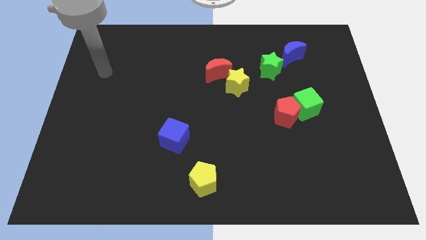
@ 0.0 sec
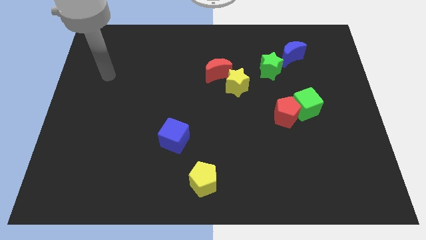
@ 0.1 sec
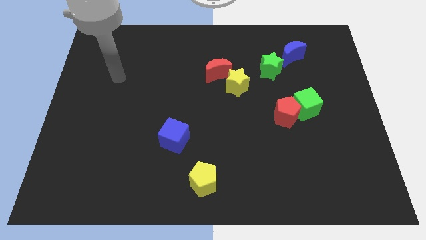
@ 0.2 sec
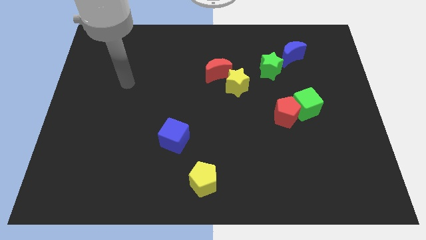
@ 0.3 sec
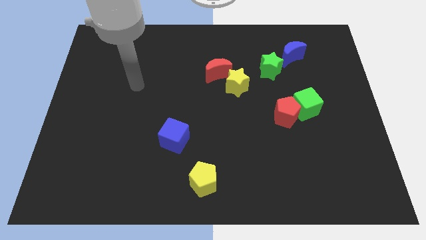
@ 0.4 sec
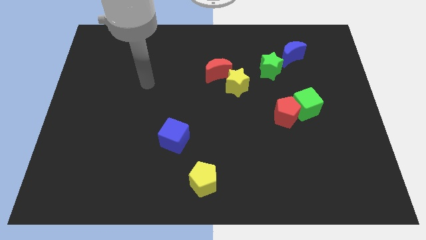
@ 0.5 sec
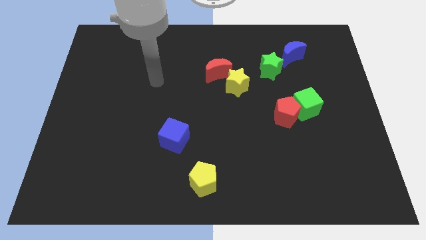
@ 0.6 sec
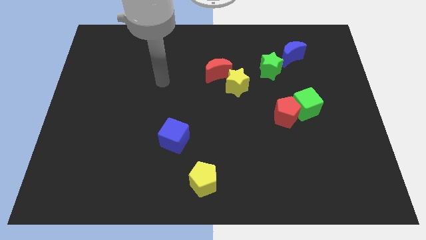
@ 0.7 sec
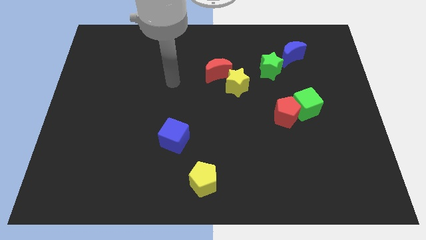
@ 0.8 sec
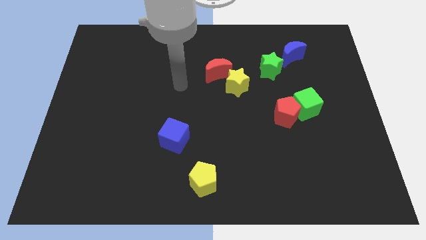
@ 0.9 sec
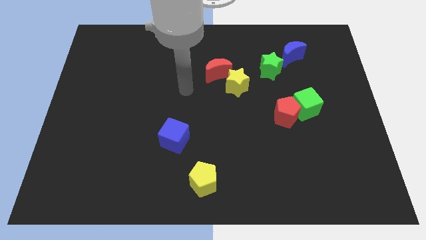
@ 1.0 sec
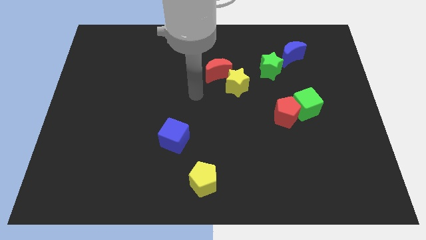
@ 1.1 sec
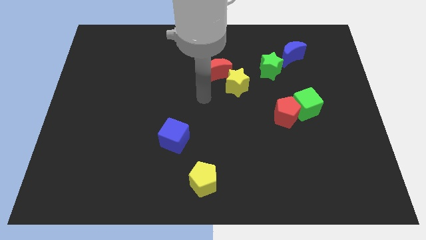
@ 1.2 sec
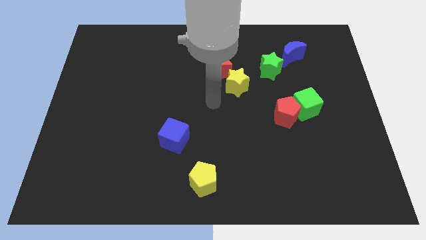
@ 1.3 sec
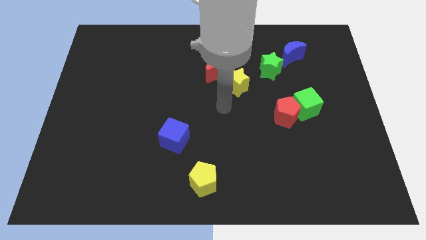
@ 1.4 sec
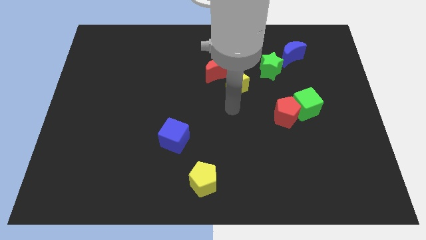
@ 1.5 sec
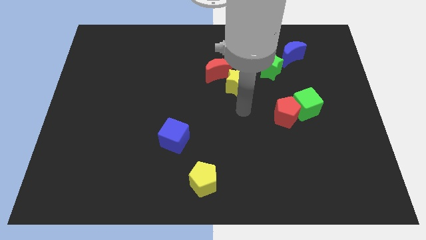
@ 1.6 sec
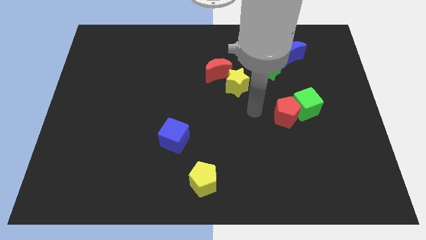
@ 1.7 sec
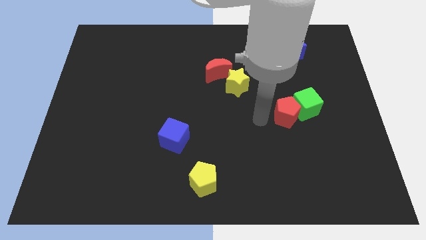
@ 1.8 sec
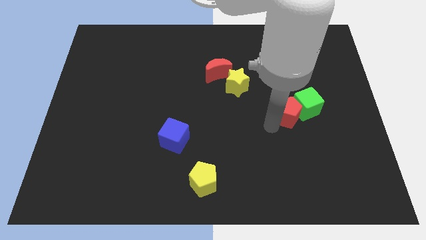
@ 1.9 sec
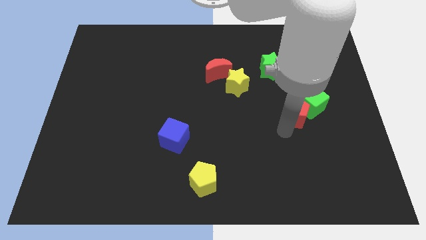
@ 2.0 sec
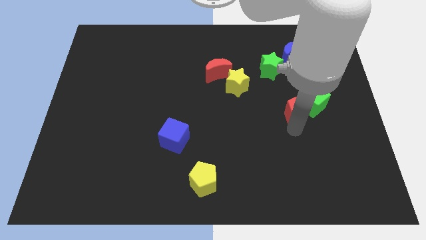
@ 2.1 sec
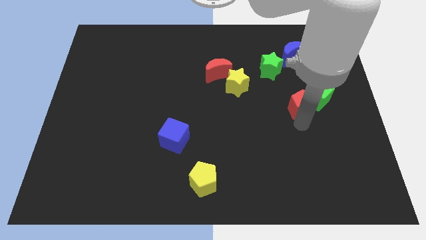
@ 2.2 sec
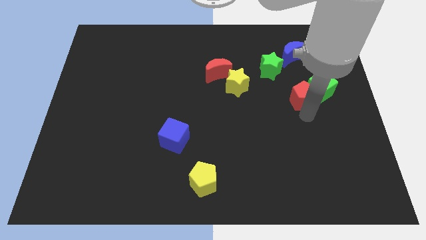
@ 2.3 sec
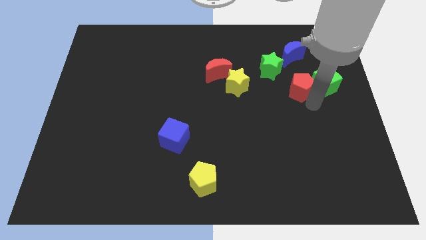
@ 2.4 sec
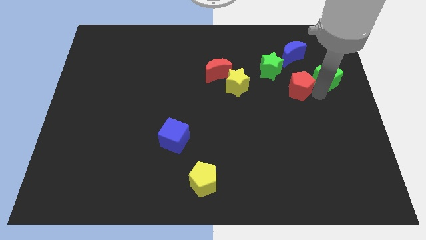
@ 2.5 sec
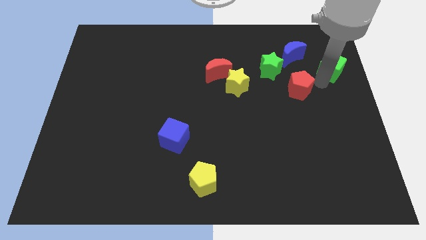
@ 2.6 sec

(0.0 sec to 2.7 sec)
move the red pentagon away from the green cube

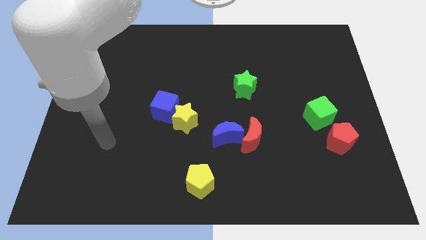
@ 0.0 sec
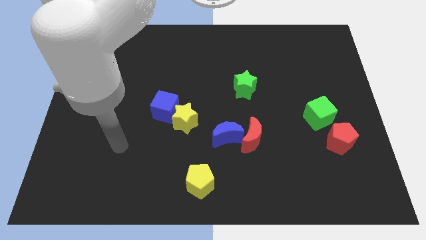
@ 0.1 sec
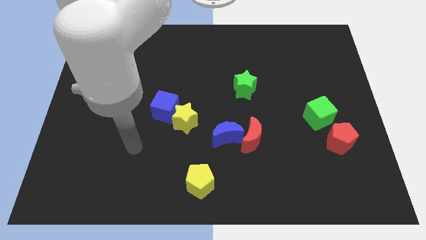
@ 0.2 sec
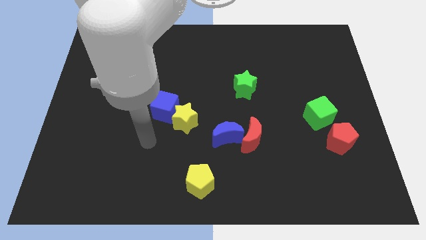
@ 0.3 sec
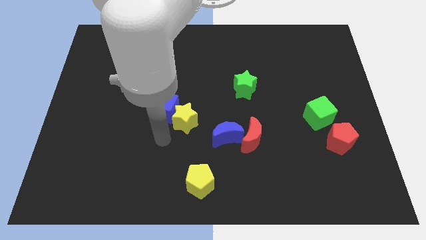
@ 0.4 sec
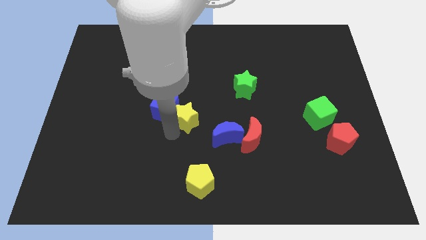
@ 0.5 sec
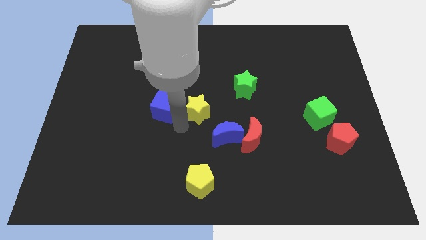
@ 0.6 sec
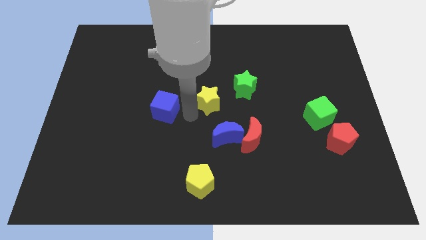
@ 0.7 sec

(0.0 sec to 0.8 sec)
separate the blue cube from the yellow star

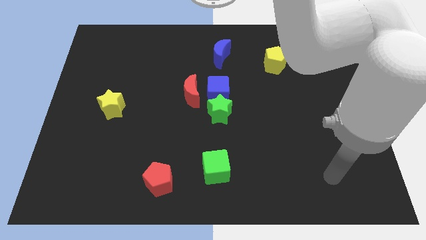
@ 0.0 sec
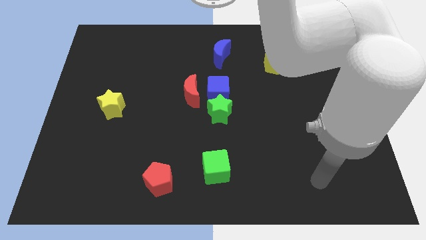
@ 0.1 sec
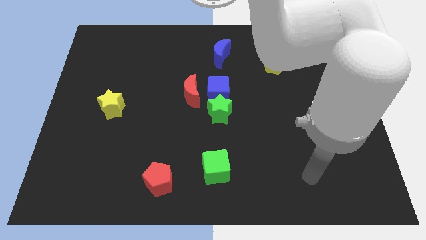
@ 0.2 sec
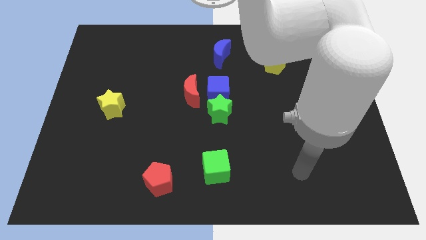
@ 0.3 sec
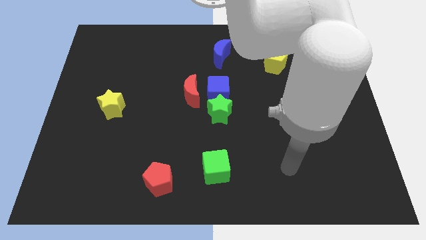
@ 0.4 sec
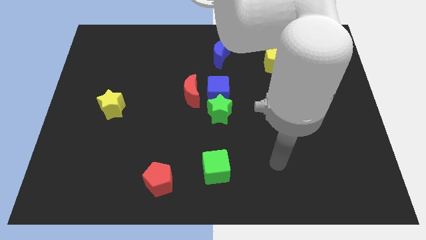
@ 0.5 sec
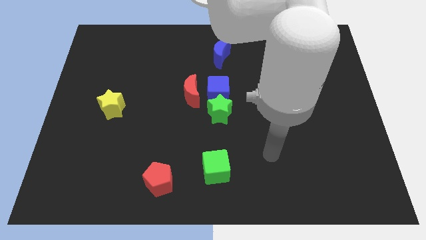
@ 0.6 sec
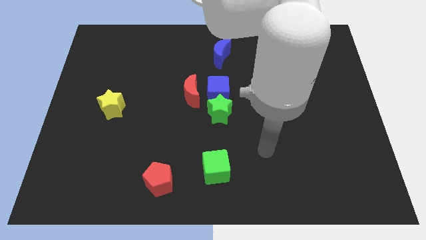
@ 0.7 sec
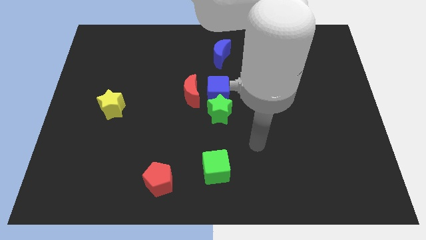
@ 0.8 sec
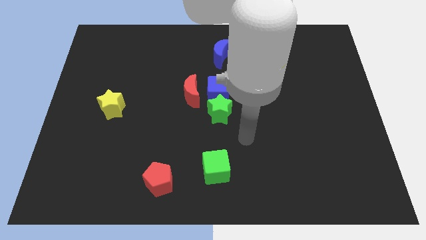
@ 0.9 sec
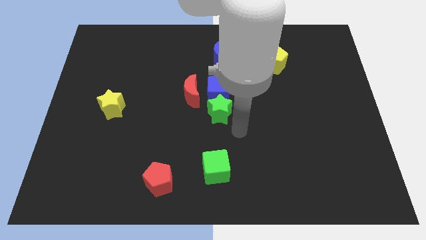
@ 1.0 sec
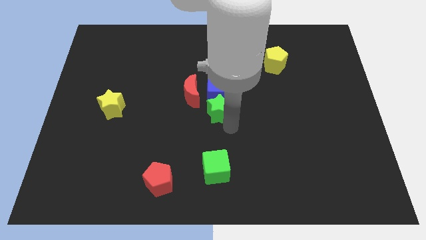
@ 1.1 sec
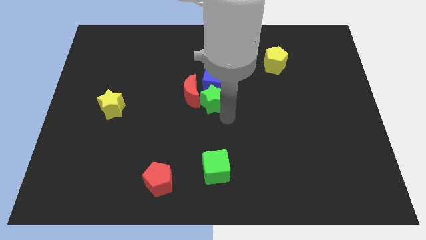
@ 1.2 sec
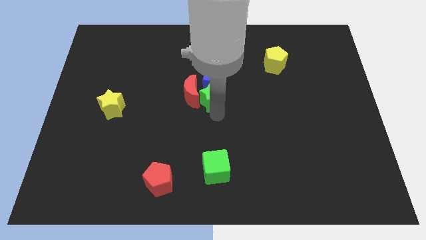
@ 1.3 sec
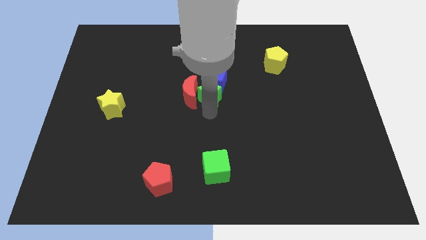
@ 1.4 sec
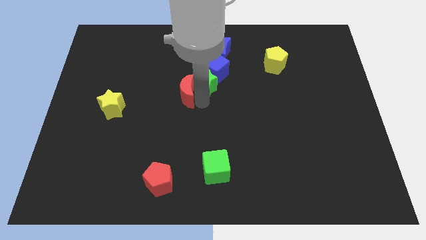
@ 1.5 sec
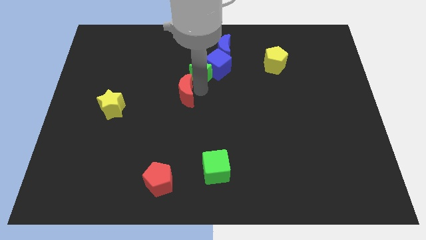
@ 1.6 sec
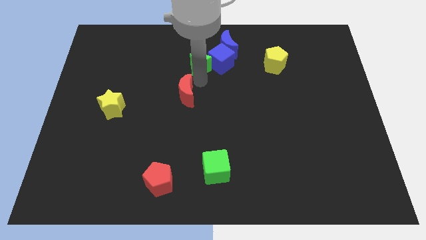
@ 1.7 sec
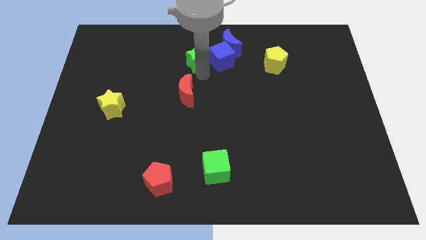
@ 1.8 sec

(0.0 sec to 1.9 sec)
move the blue cube away from the green star and red moon

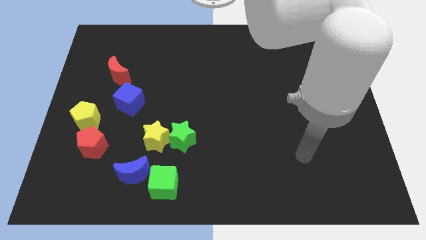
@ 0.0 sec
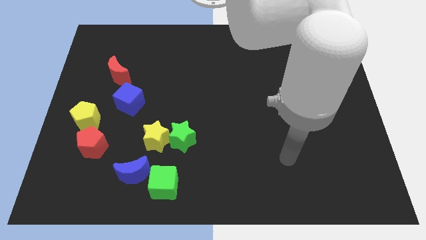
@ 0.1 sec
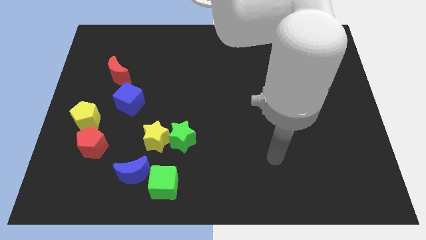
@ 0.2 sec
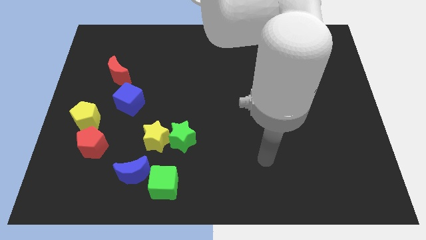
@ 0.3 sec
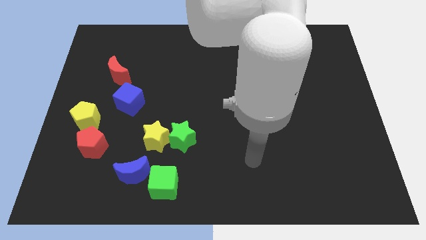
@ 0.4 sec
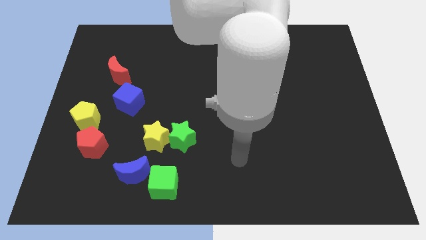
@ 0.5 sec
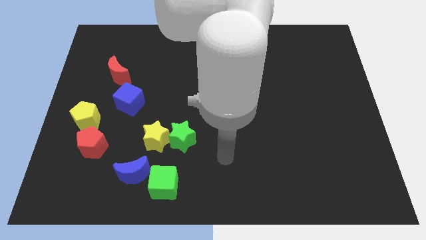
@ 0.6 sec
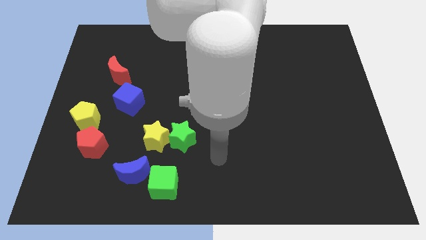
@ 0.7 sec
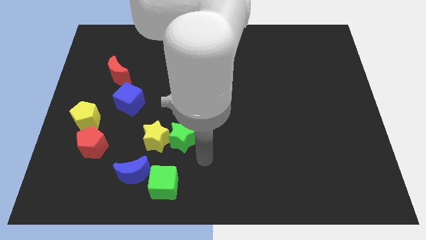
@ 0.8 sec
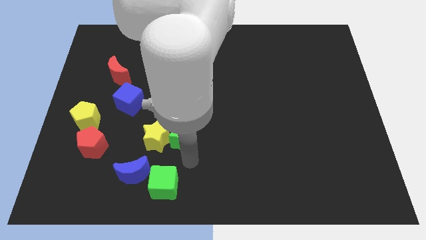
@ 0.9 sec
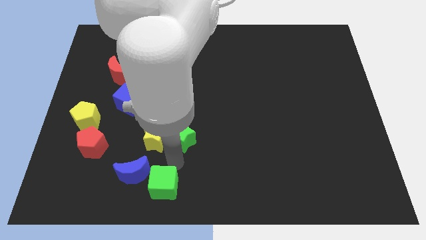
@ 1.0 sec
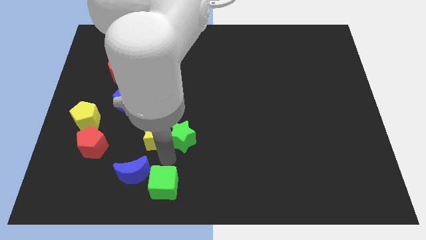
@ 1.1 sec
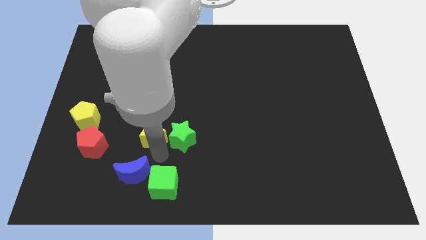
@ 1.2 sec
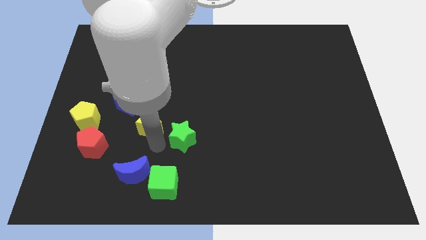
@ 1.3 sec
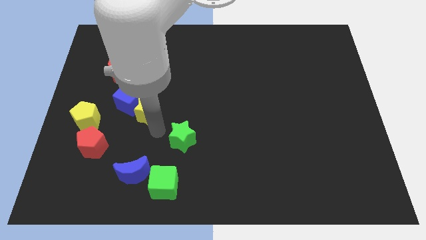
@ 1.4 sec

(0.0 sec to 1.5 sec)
move the green star away from the yellow star

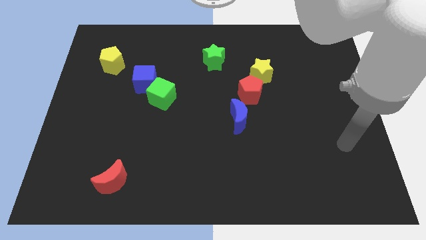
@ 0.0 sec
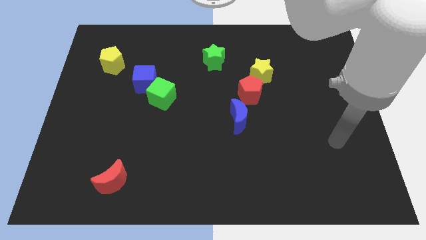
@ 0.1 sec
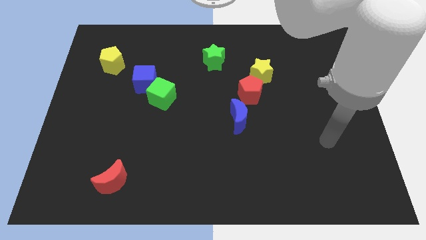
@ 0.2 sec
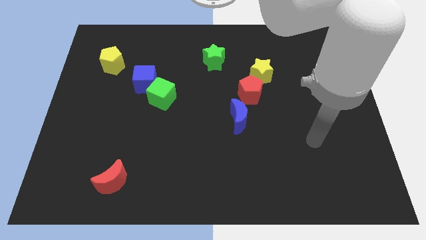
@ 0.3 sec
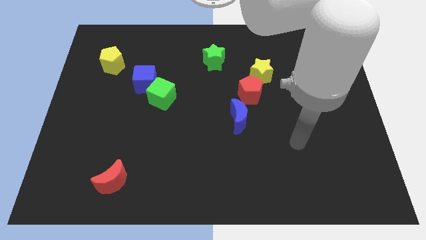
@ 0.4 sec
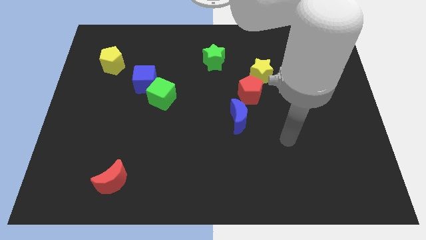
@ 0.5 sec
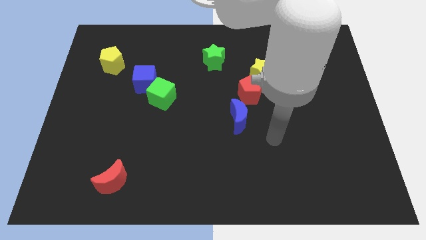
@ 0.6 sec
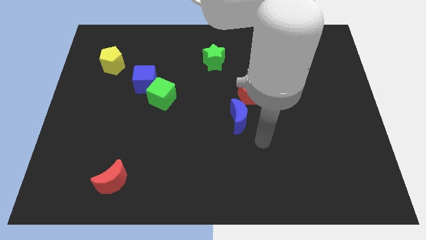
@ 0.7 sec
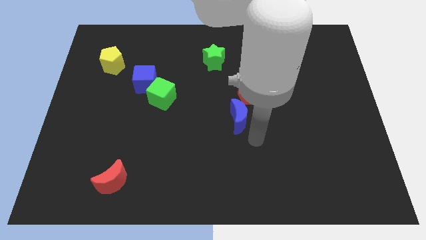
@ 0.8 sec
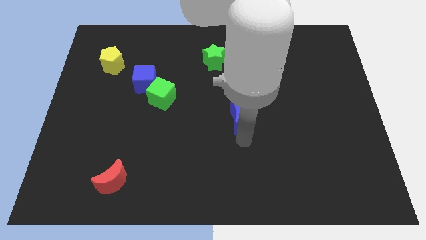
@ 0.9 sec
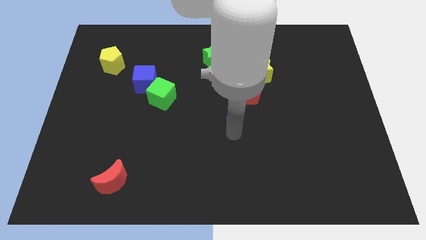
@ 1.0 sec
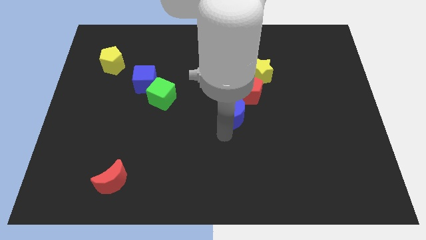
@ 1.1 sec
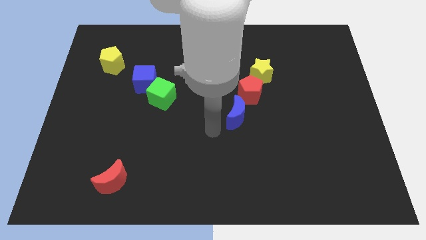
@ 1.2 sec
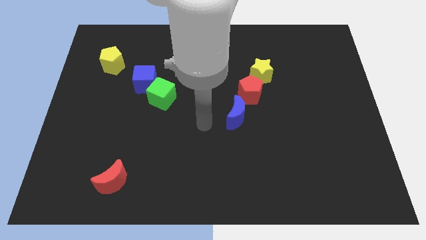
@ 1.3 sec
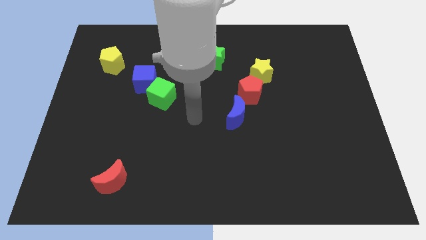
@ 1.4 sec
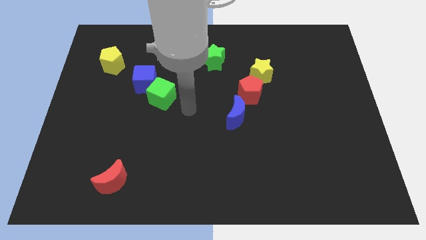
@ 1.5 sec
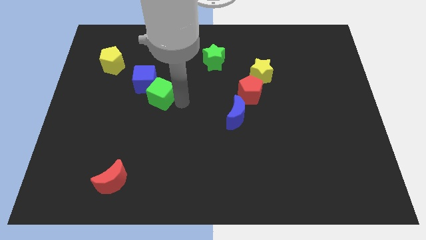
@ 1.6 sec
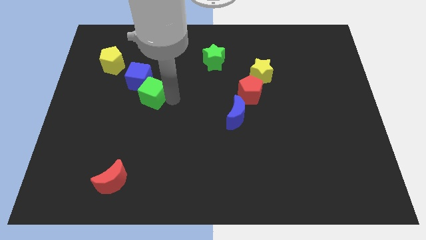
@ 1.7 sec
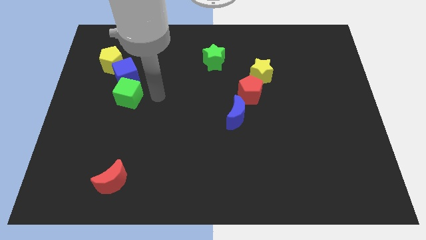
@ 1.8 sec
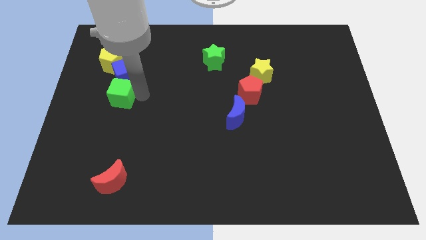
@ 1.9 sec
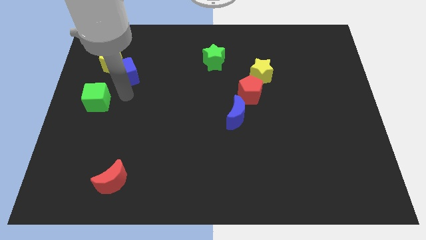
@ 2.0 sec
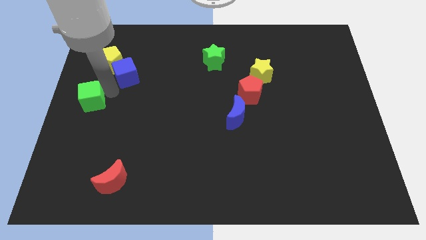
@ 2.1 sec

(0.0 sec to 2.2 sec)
pull the blue cube apart from the green cube
